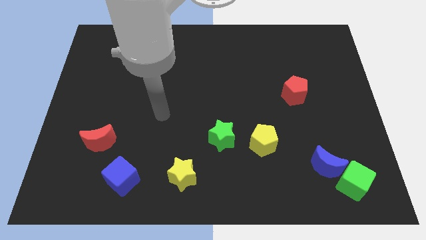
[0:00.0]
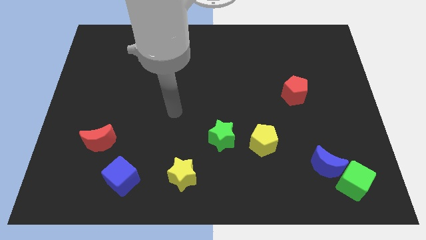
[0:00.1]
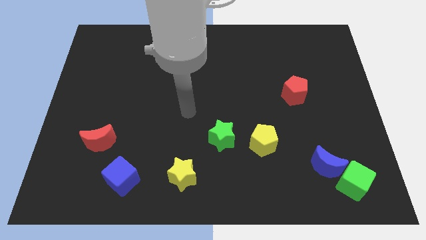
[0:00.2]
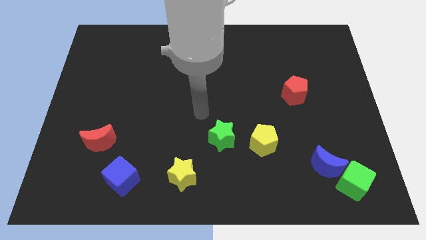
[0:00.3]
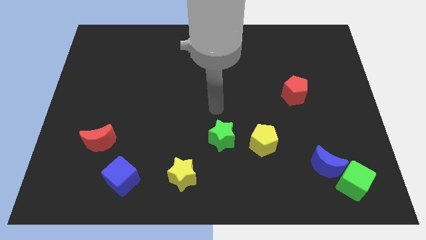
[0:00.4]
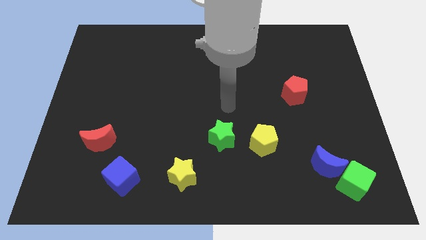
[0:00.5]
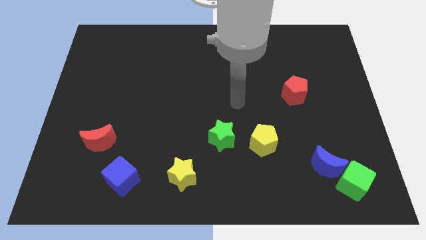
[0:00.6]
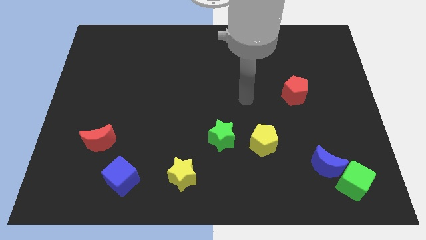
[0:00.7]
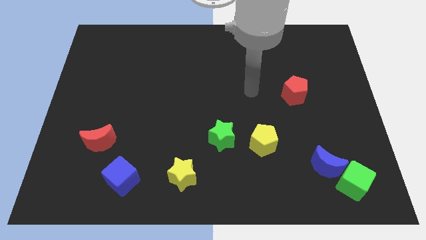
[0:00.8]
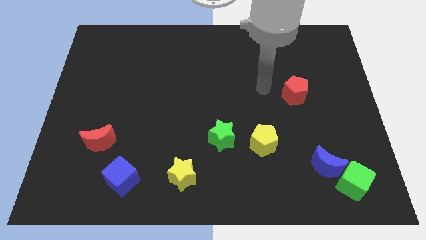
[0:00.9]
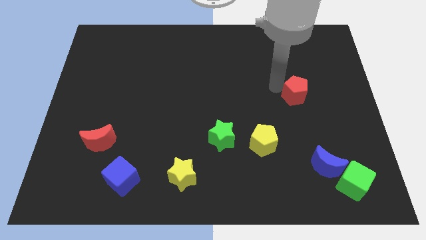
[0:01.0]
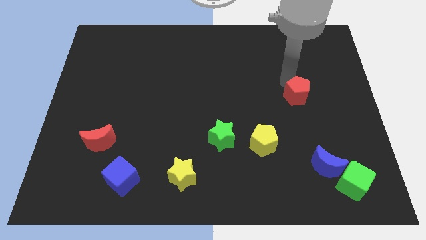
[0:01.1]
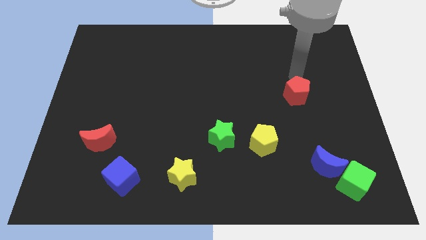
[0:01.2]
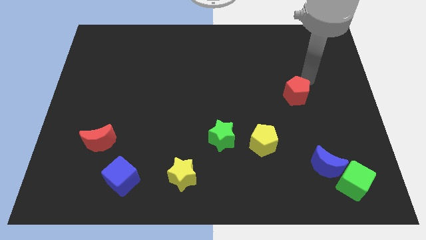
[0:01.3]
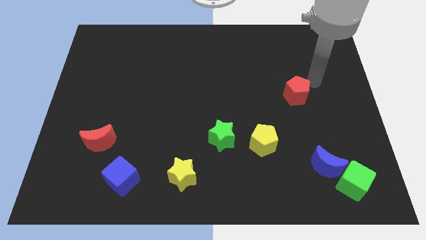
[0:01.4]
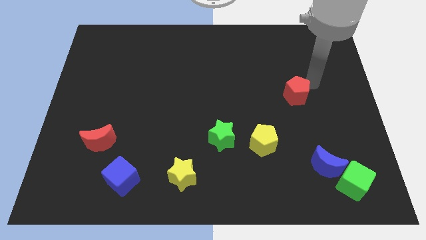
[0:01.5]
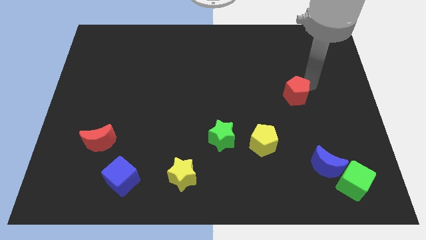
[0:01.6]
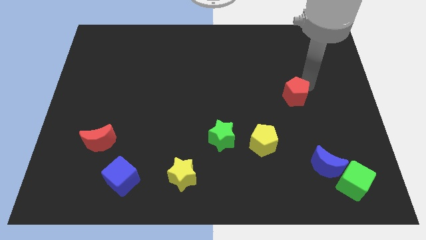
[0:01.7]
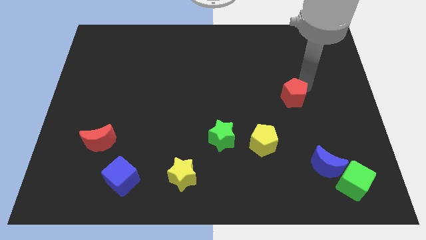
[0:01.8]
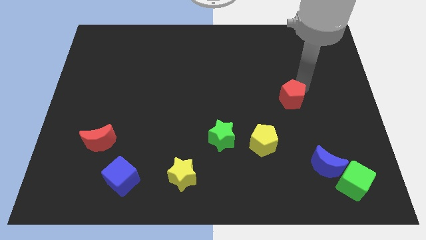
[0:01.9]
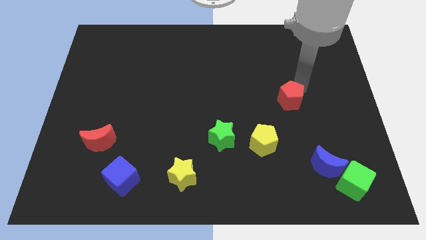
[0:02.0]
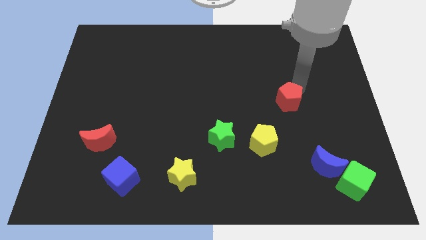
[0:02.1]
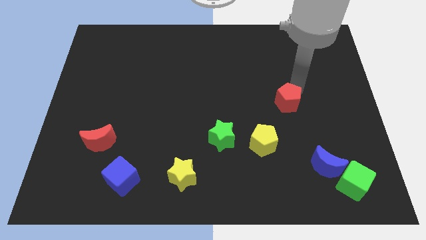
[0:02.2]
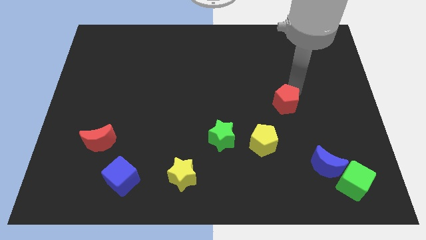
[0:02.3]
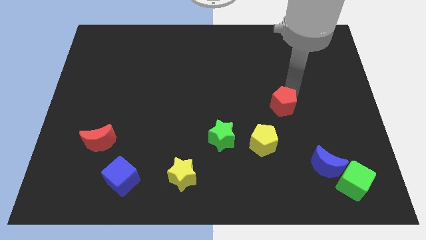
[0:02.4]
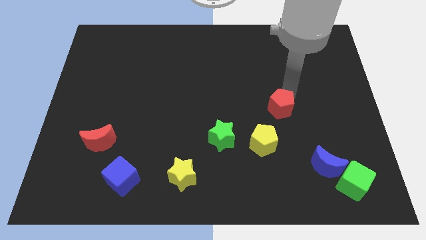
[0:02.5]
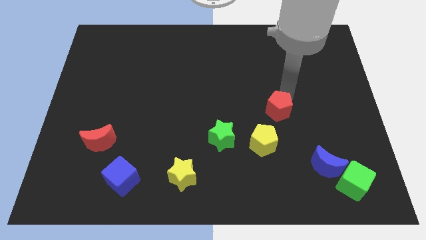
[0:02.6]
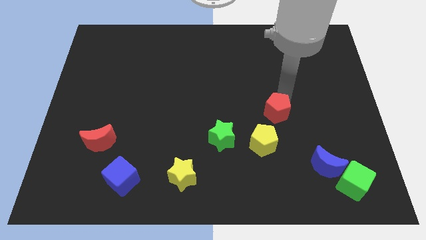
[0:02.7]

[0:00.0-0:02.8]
slightly slide the red pentagon down and left

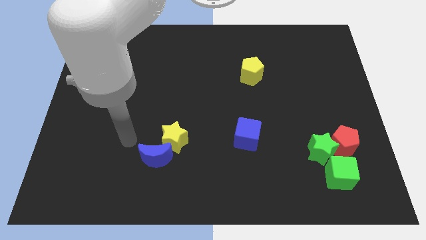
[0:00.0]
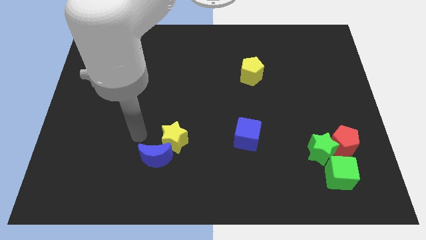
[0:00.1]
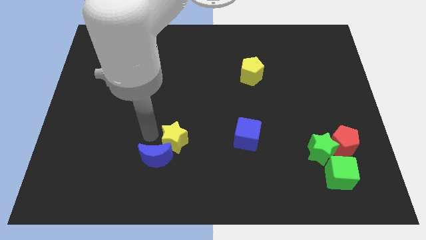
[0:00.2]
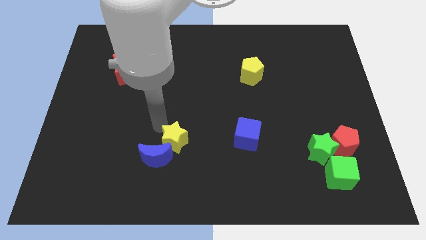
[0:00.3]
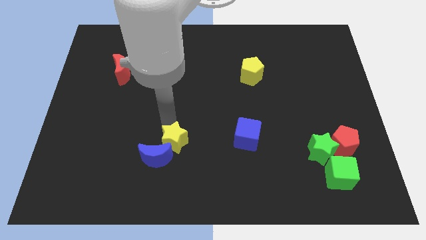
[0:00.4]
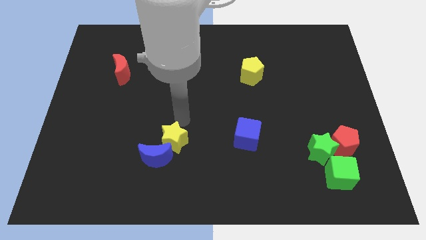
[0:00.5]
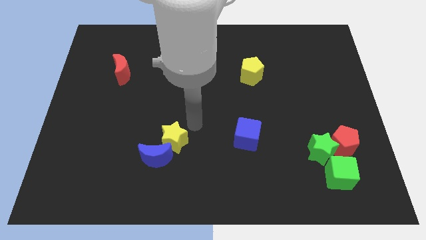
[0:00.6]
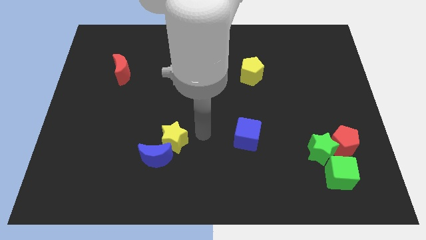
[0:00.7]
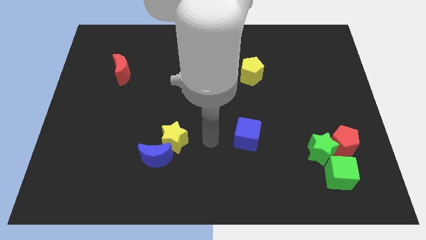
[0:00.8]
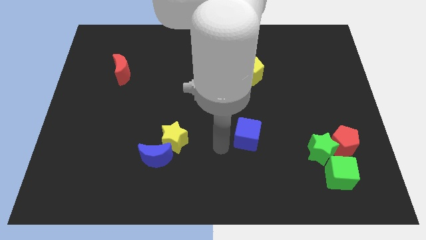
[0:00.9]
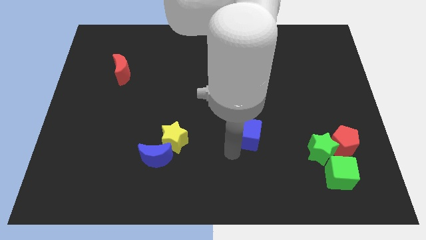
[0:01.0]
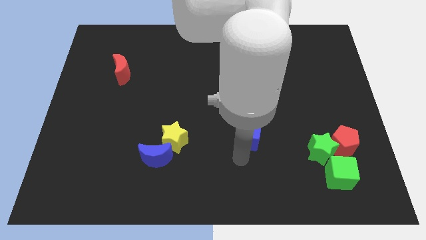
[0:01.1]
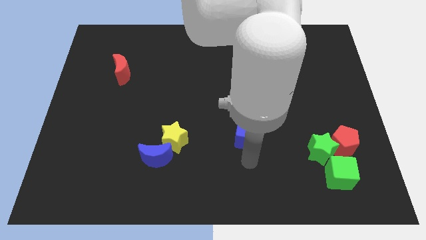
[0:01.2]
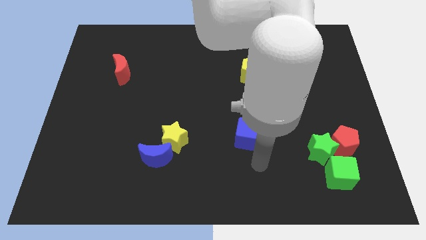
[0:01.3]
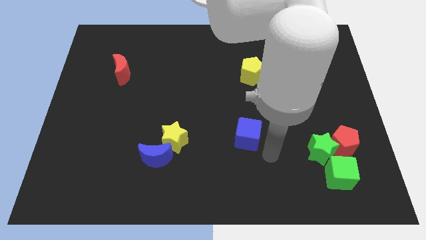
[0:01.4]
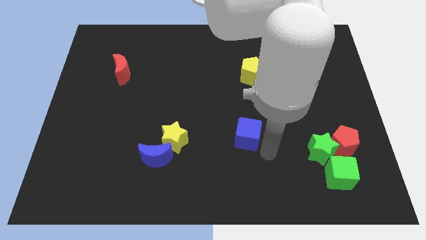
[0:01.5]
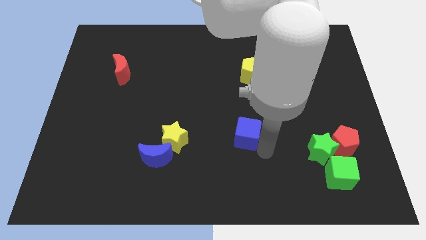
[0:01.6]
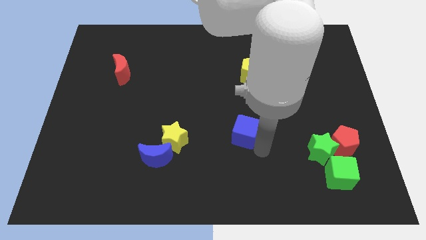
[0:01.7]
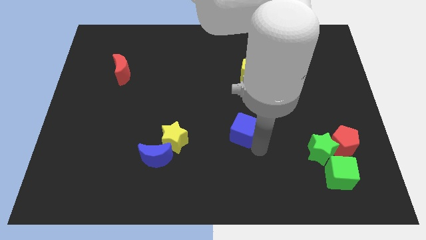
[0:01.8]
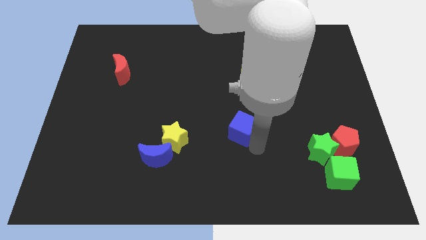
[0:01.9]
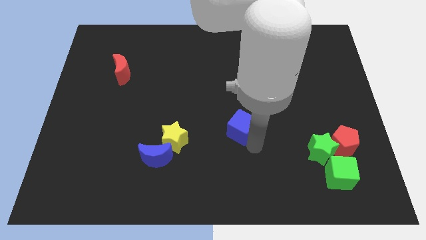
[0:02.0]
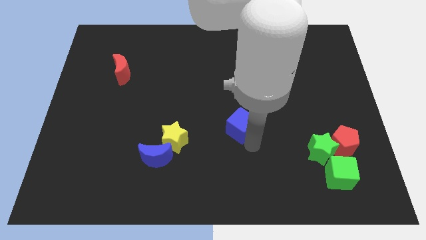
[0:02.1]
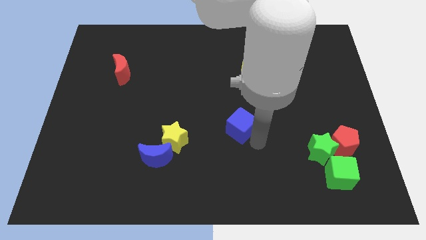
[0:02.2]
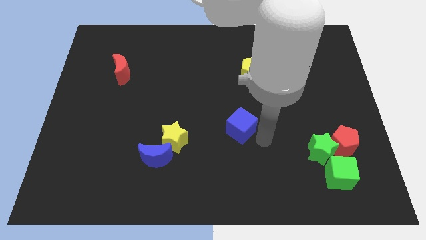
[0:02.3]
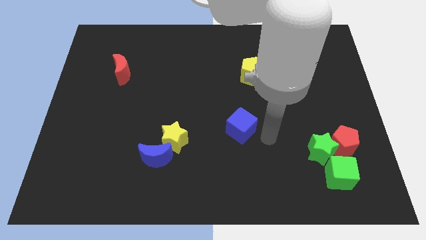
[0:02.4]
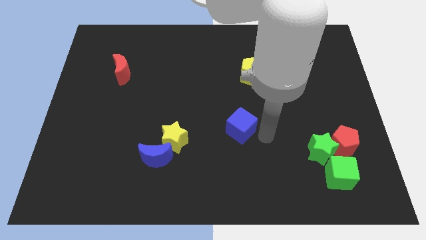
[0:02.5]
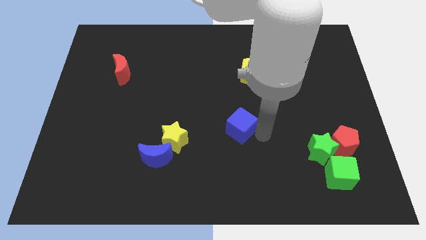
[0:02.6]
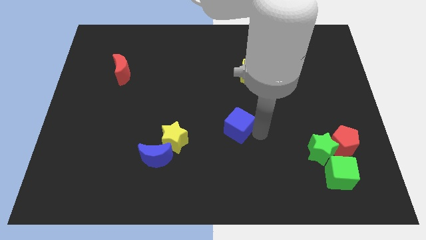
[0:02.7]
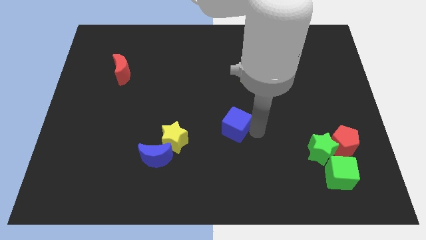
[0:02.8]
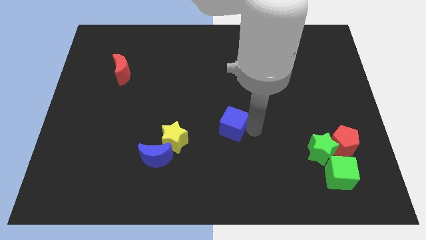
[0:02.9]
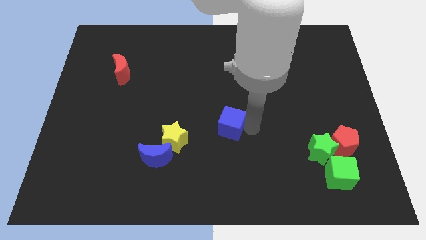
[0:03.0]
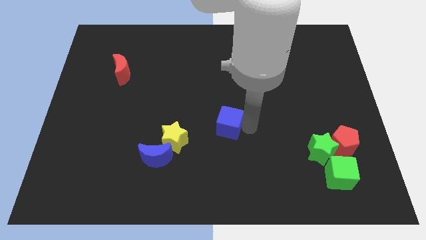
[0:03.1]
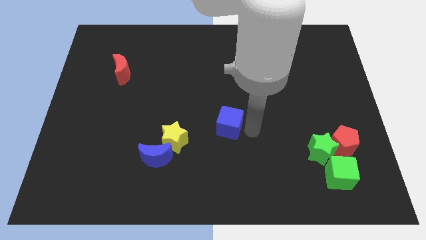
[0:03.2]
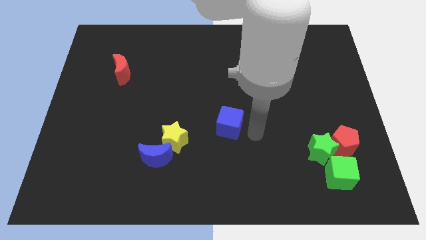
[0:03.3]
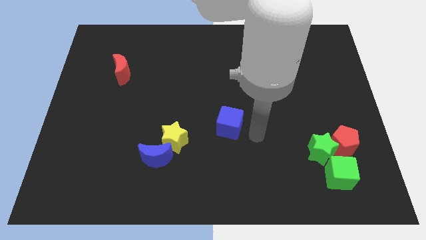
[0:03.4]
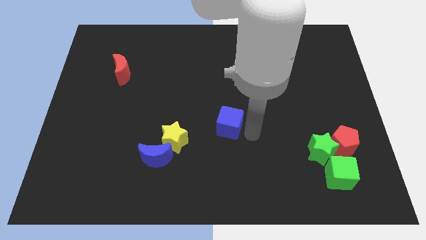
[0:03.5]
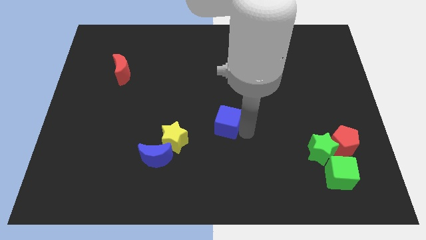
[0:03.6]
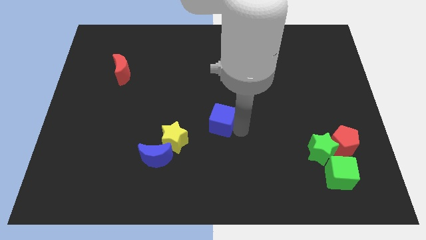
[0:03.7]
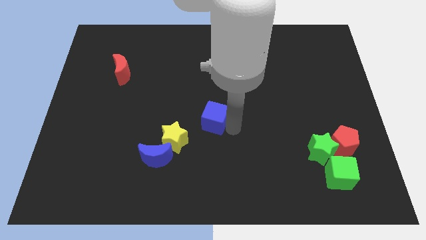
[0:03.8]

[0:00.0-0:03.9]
push the blue cube a little diagonally upwards and to the left

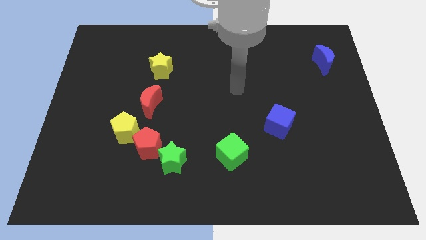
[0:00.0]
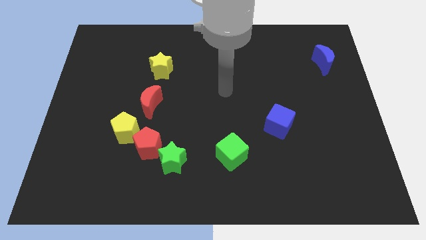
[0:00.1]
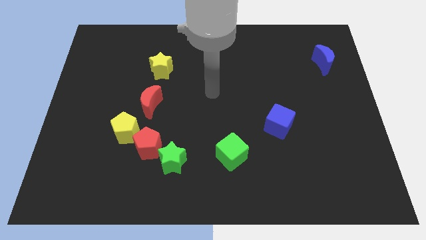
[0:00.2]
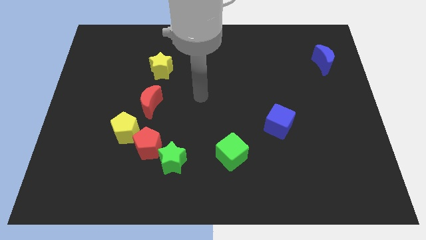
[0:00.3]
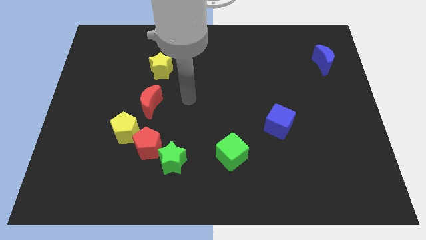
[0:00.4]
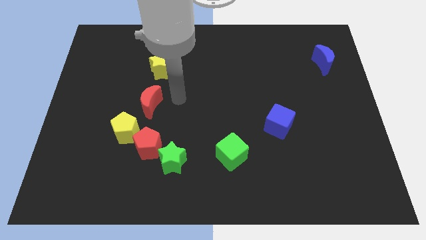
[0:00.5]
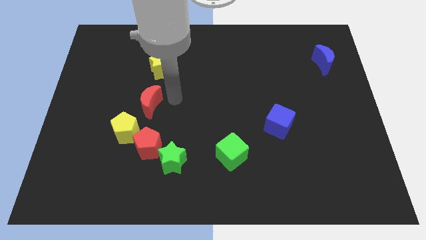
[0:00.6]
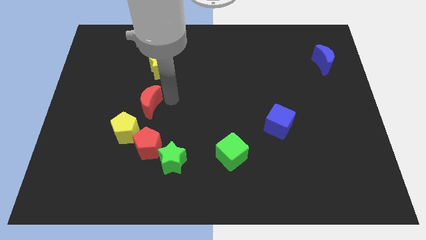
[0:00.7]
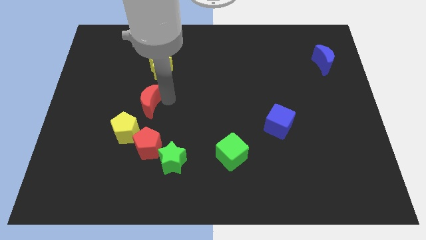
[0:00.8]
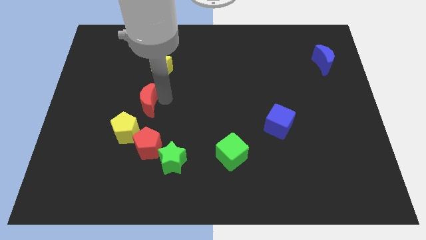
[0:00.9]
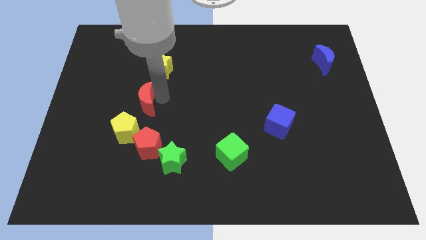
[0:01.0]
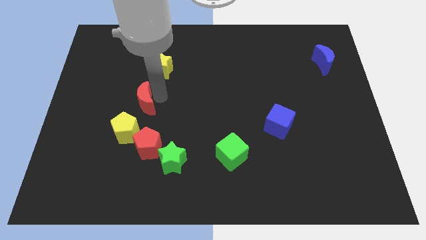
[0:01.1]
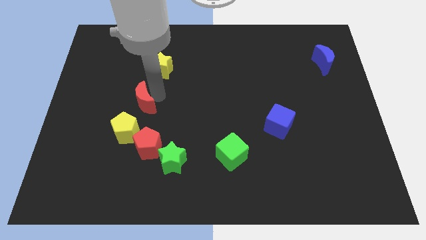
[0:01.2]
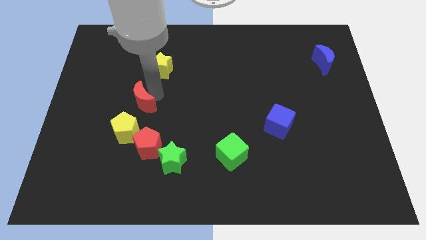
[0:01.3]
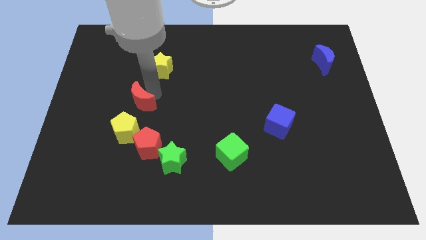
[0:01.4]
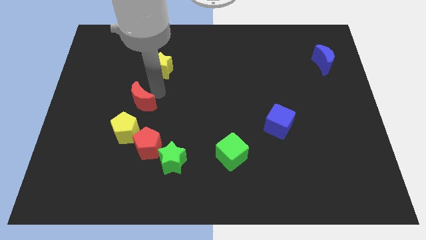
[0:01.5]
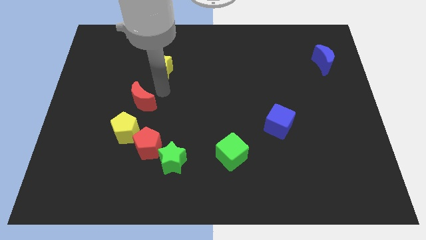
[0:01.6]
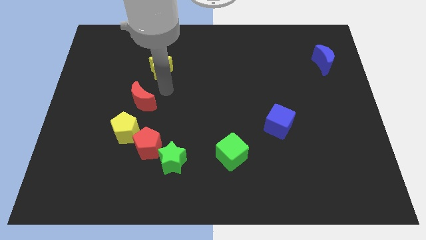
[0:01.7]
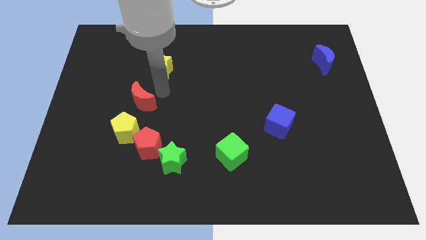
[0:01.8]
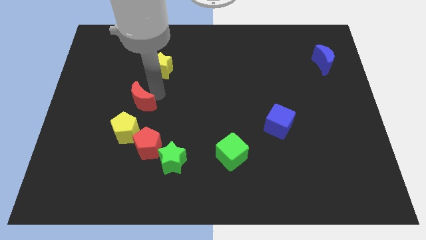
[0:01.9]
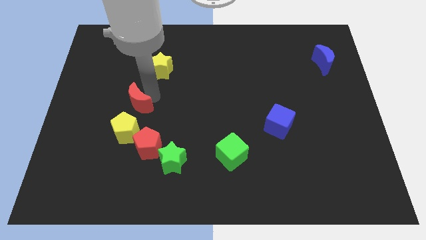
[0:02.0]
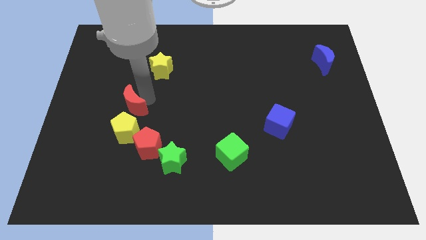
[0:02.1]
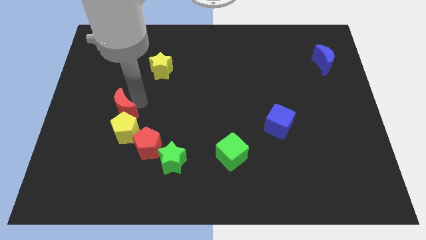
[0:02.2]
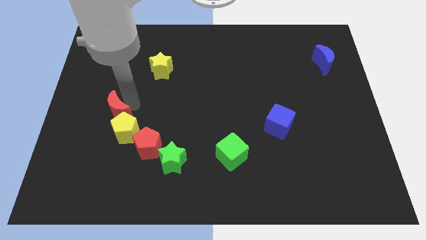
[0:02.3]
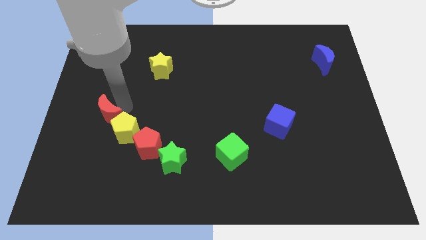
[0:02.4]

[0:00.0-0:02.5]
move the red moon downwards and left a little
